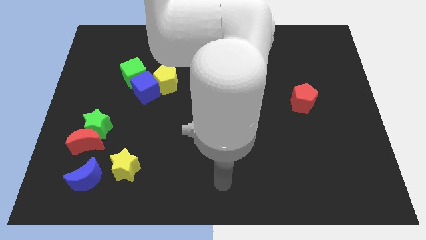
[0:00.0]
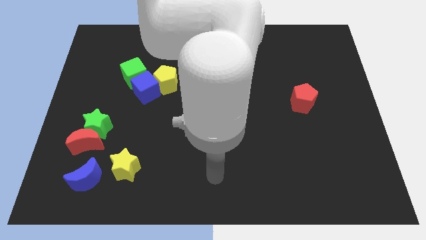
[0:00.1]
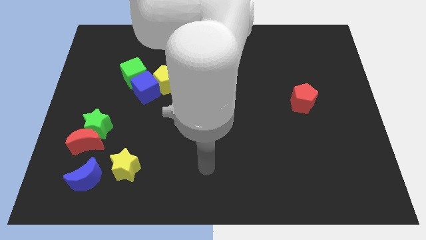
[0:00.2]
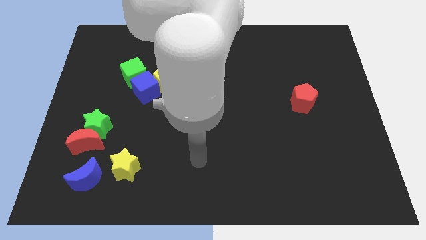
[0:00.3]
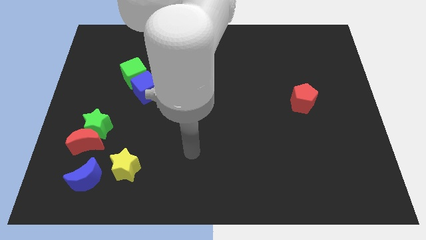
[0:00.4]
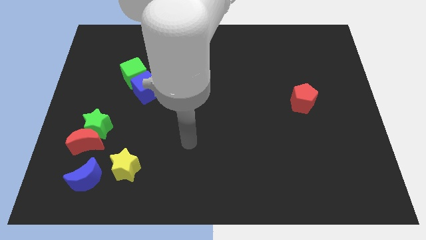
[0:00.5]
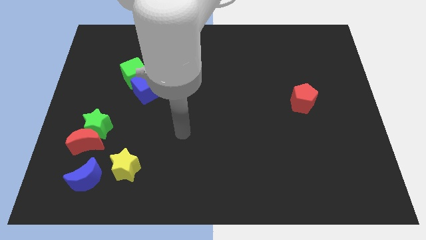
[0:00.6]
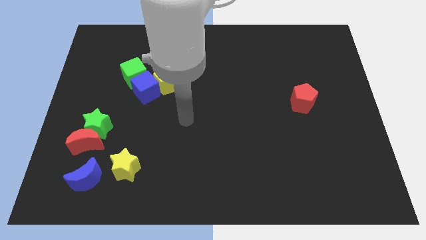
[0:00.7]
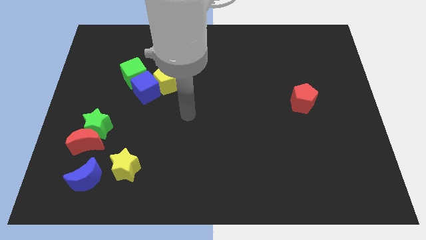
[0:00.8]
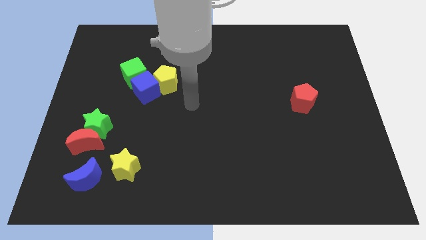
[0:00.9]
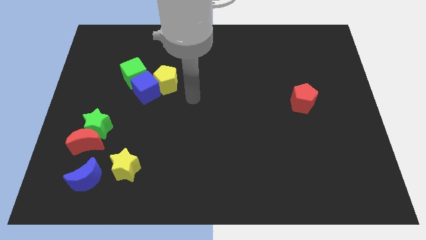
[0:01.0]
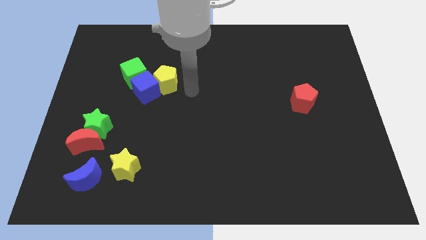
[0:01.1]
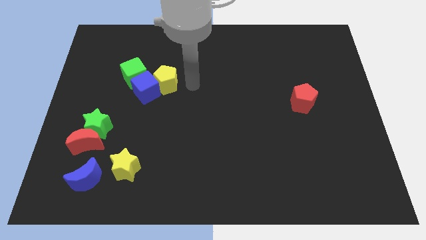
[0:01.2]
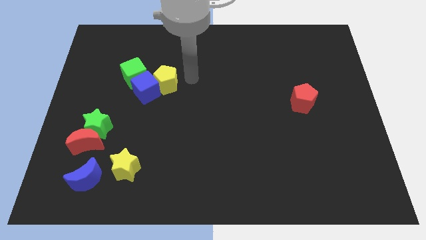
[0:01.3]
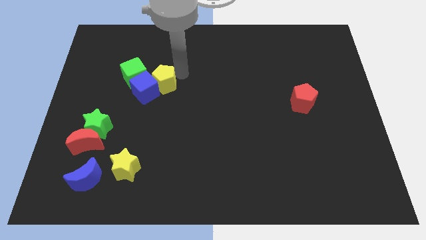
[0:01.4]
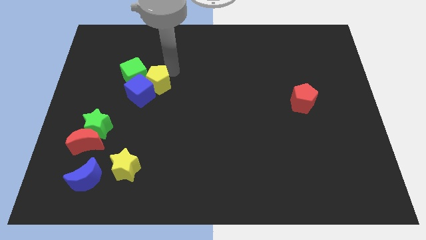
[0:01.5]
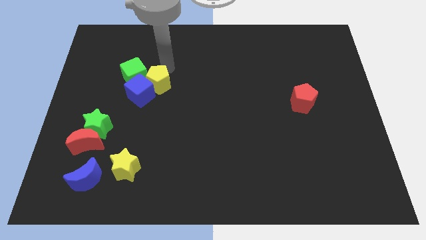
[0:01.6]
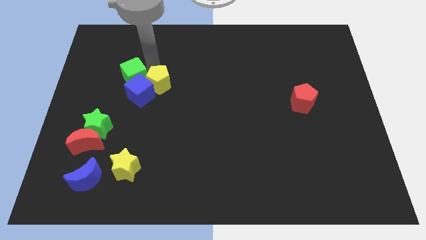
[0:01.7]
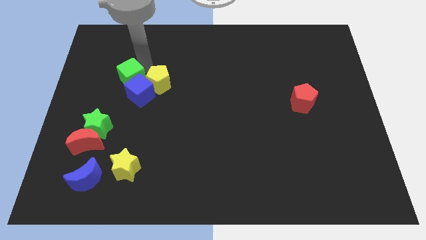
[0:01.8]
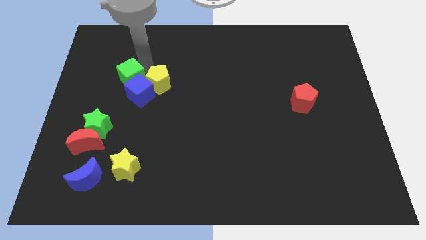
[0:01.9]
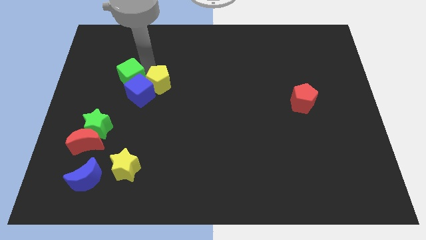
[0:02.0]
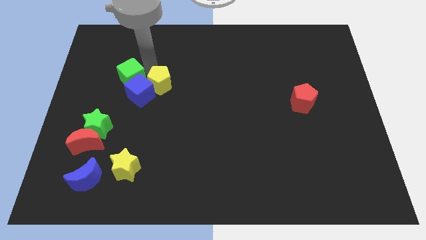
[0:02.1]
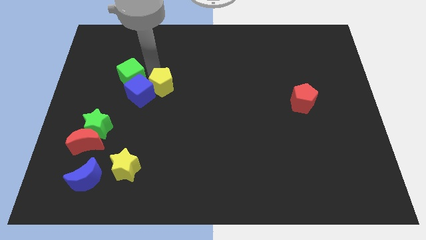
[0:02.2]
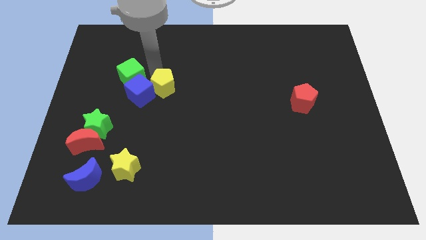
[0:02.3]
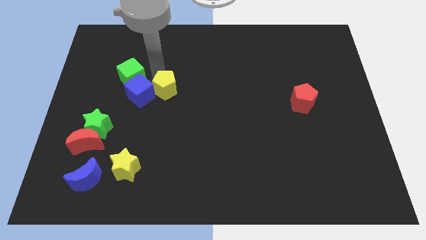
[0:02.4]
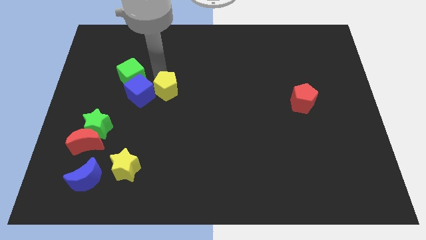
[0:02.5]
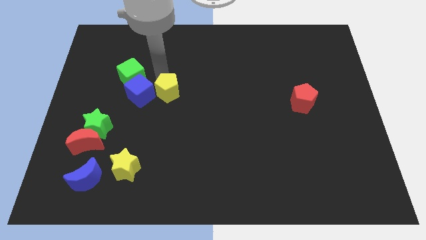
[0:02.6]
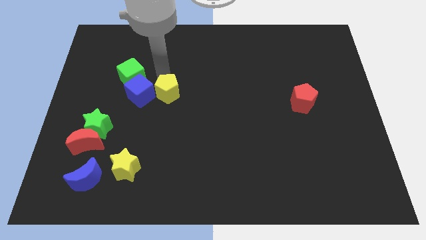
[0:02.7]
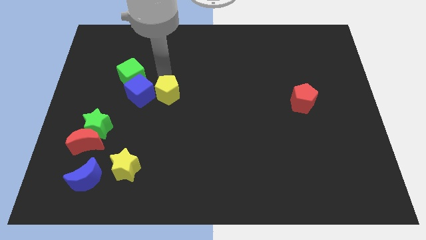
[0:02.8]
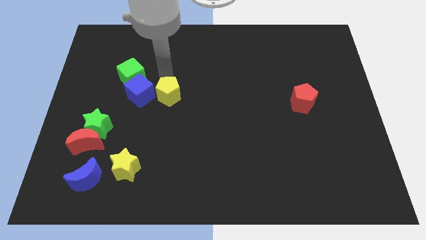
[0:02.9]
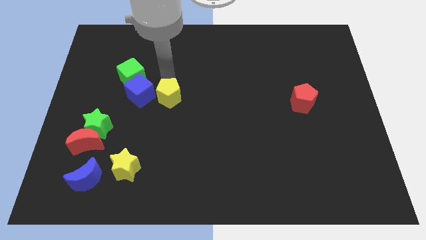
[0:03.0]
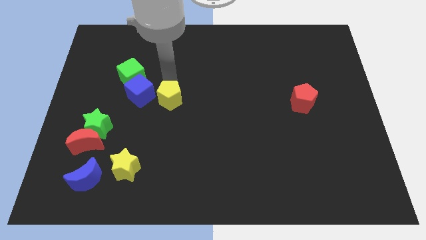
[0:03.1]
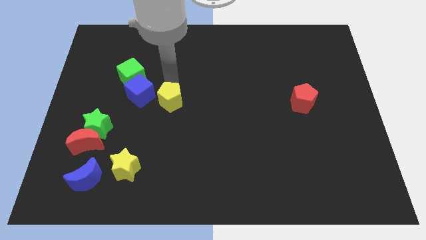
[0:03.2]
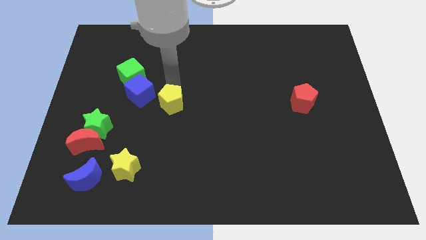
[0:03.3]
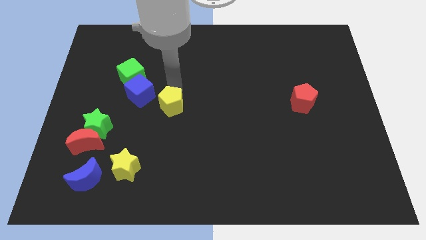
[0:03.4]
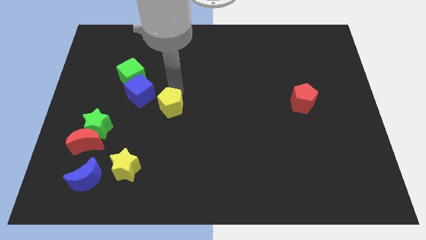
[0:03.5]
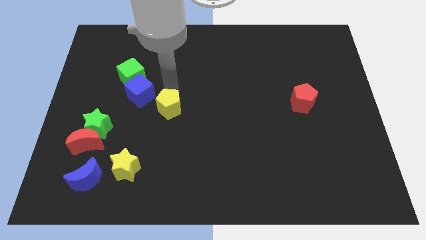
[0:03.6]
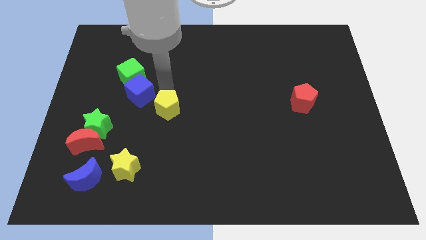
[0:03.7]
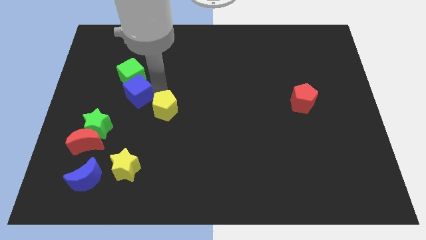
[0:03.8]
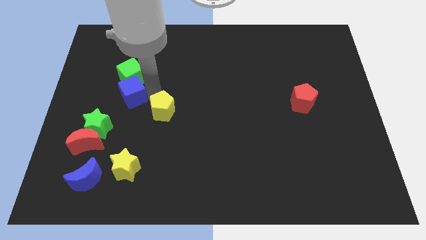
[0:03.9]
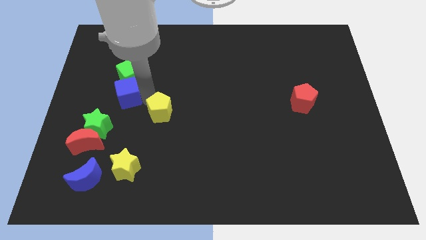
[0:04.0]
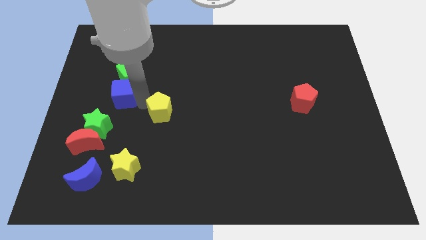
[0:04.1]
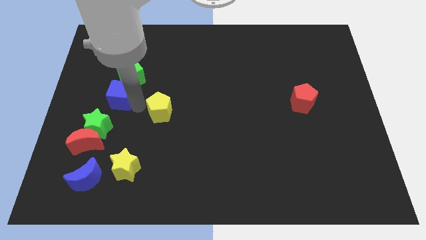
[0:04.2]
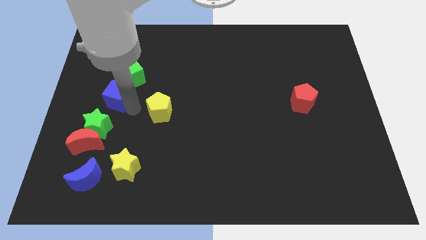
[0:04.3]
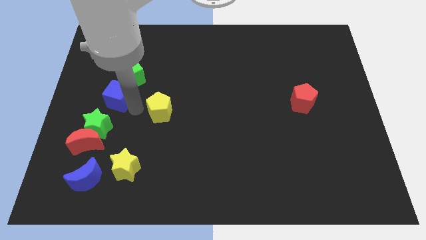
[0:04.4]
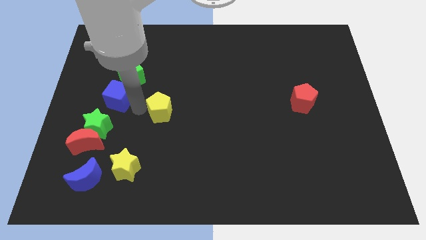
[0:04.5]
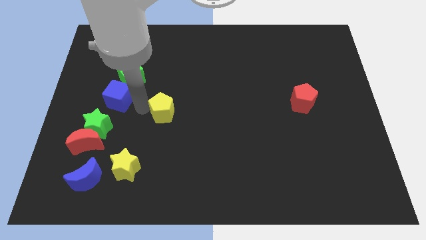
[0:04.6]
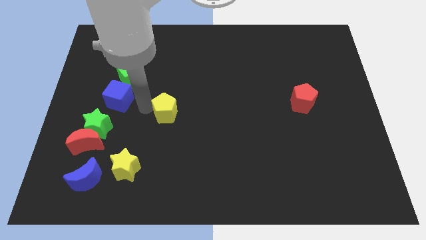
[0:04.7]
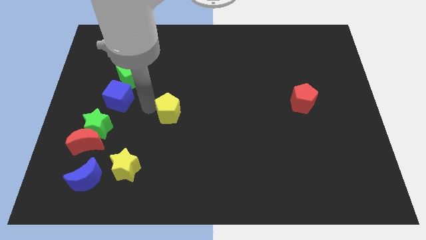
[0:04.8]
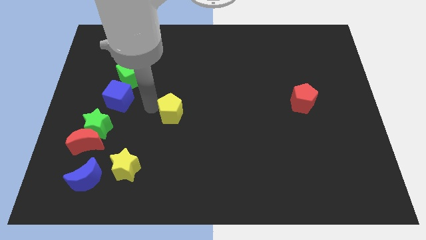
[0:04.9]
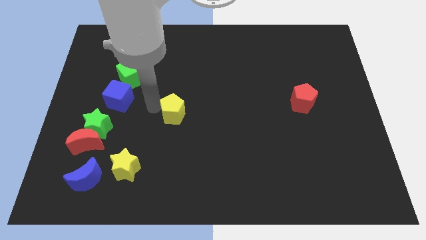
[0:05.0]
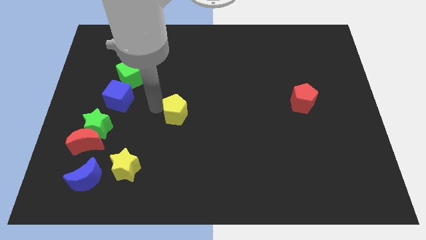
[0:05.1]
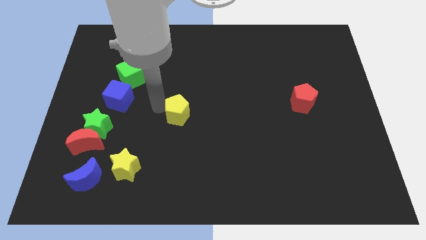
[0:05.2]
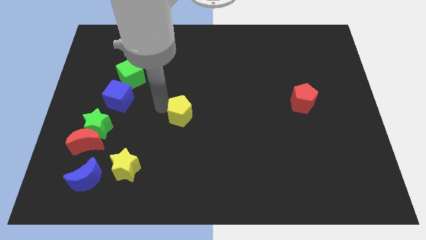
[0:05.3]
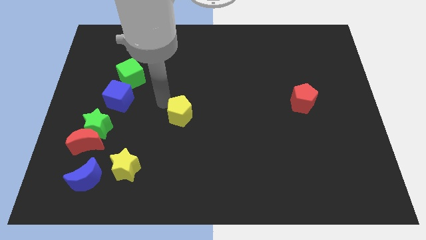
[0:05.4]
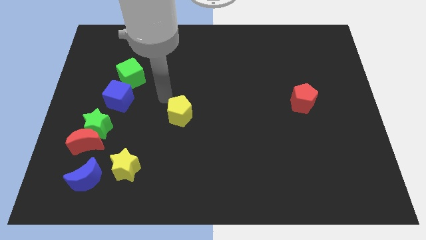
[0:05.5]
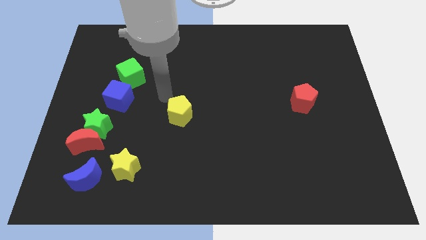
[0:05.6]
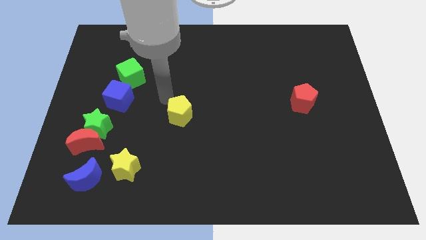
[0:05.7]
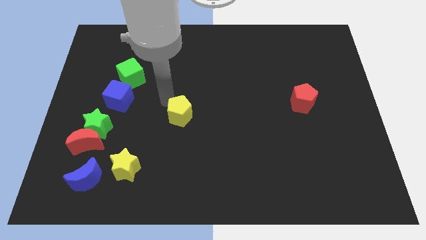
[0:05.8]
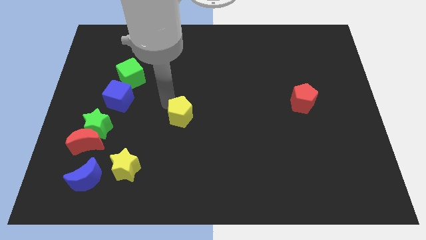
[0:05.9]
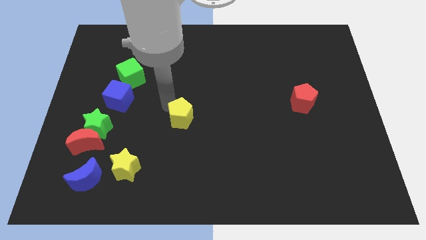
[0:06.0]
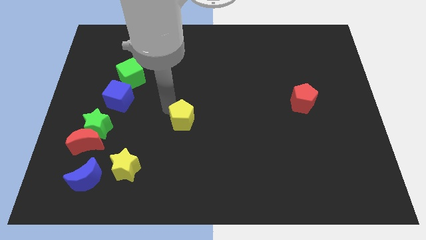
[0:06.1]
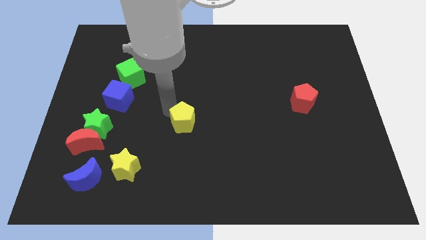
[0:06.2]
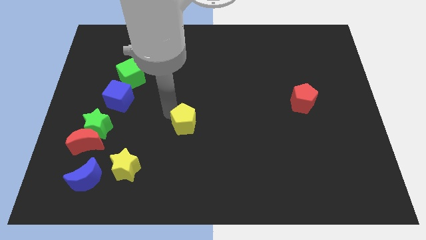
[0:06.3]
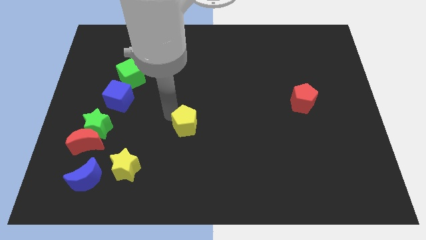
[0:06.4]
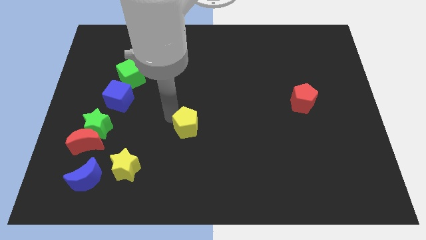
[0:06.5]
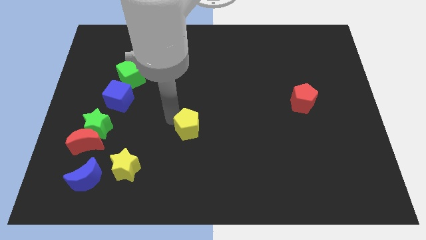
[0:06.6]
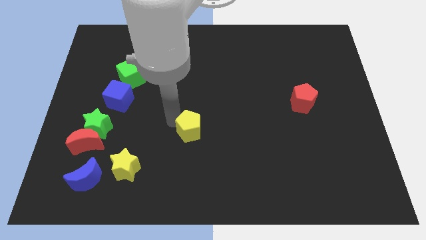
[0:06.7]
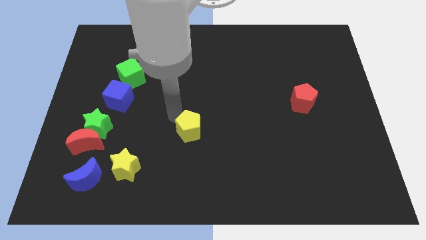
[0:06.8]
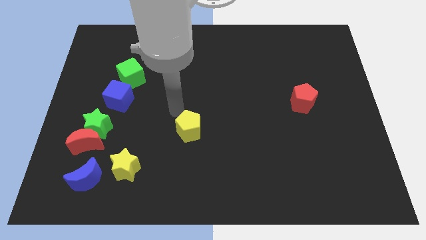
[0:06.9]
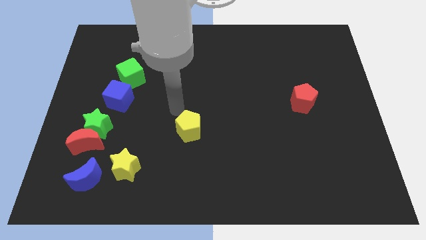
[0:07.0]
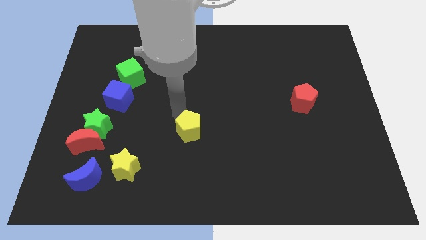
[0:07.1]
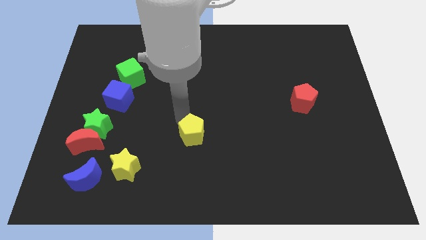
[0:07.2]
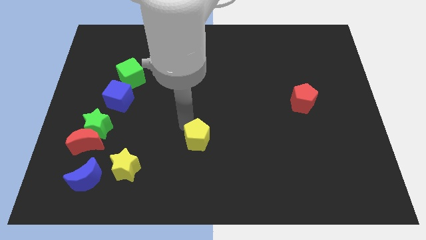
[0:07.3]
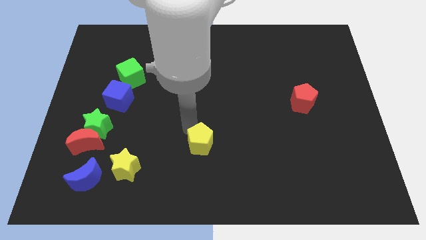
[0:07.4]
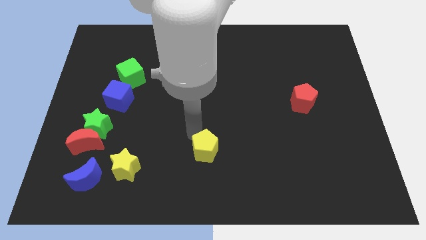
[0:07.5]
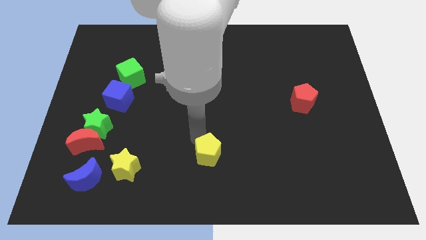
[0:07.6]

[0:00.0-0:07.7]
move the yellow pentagon to the bottom side
